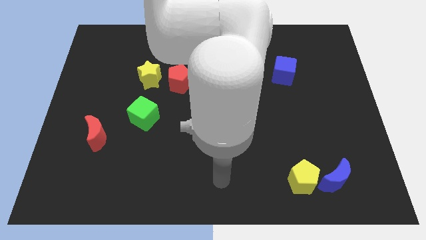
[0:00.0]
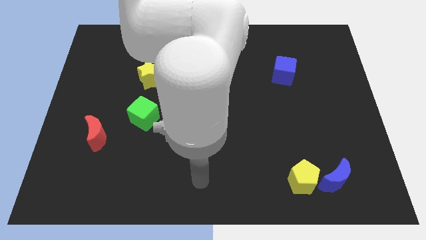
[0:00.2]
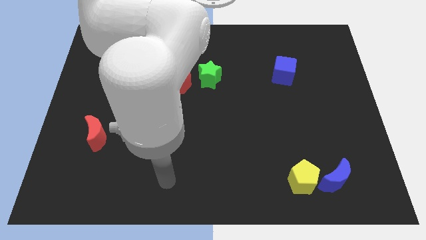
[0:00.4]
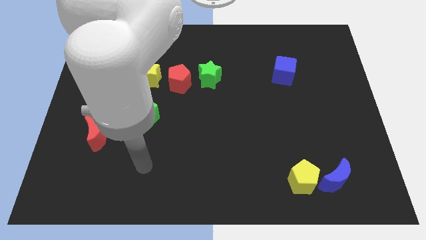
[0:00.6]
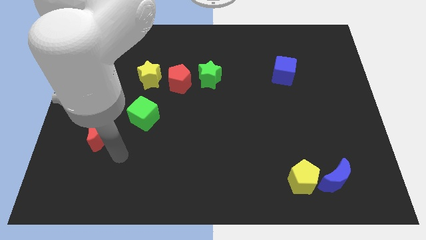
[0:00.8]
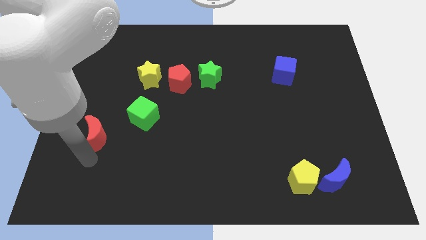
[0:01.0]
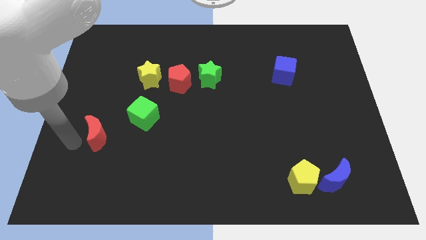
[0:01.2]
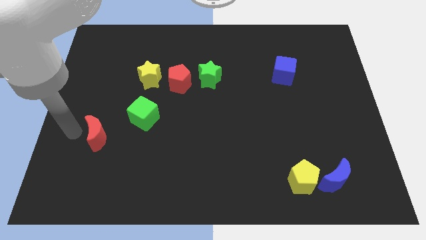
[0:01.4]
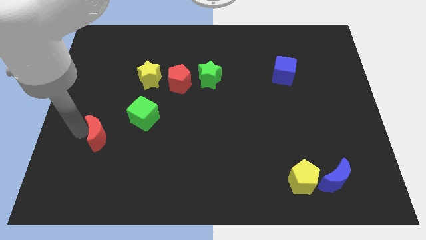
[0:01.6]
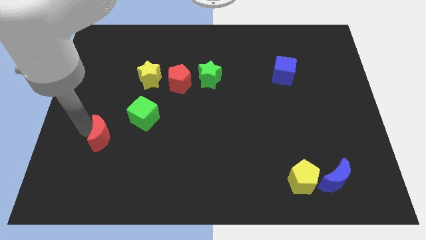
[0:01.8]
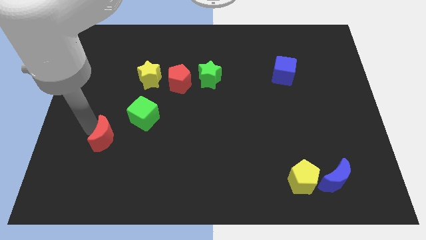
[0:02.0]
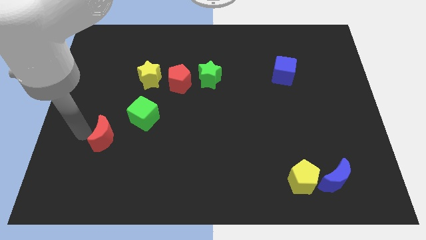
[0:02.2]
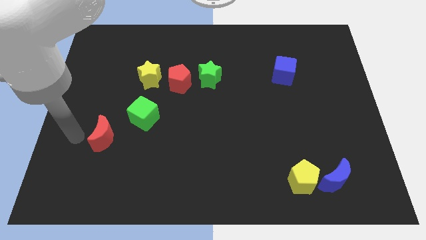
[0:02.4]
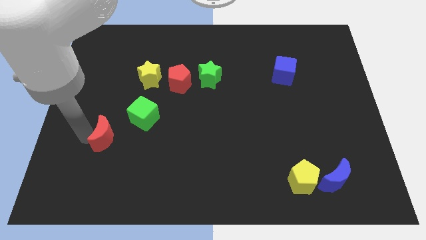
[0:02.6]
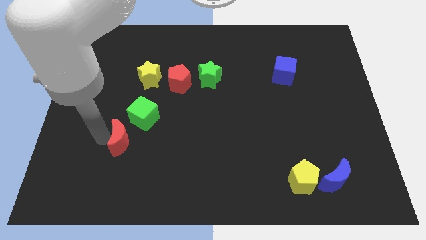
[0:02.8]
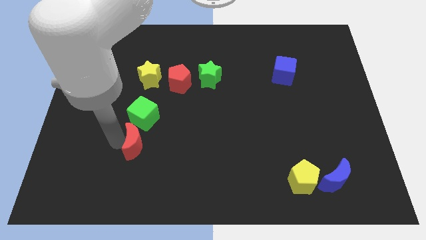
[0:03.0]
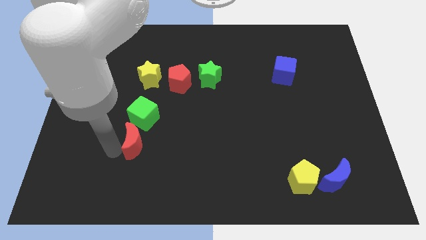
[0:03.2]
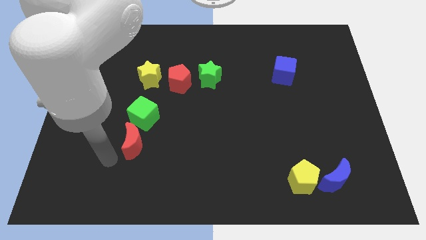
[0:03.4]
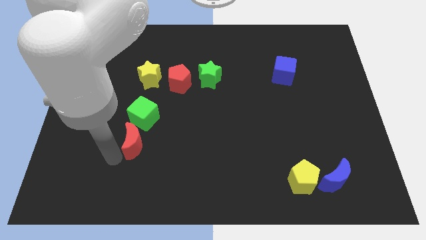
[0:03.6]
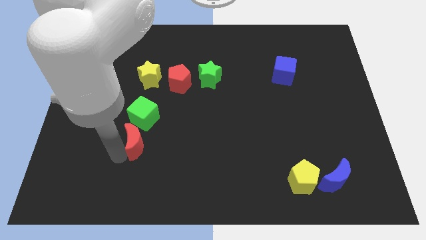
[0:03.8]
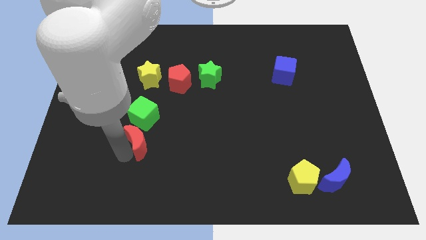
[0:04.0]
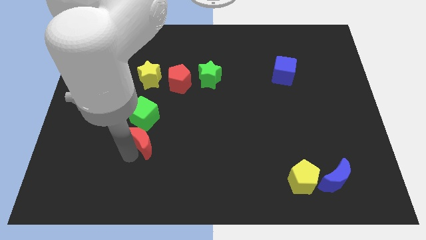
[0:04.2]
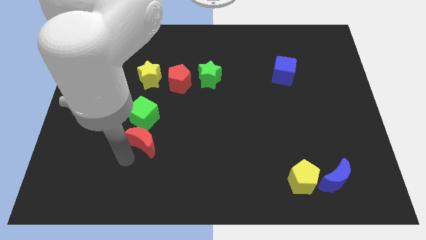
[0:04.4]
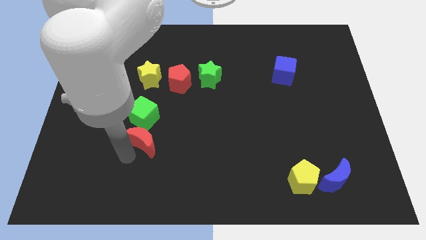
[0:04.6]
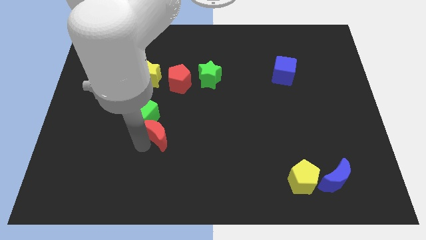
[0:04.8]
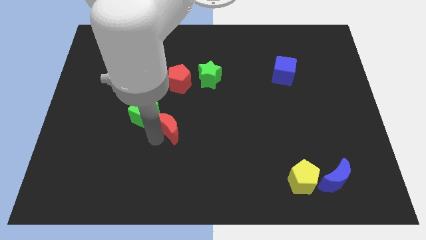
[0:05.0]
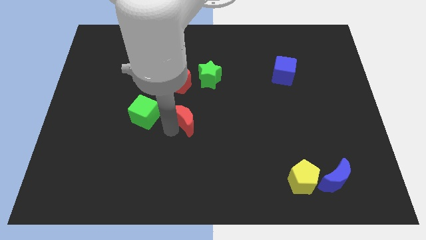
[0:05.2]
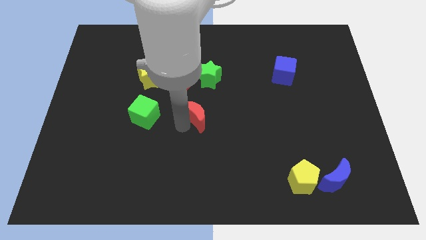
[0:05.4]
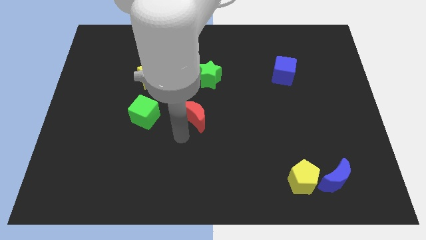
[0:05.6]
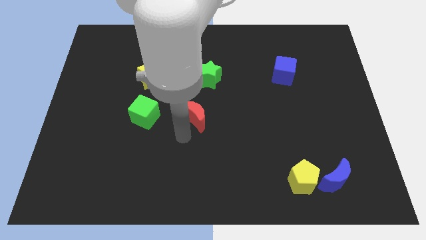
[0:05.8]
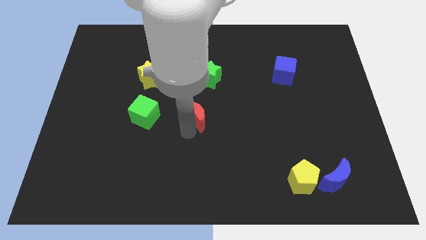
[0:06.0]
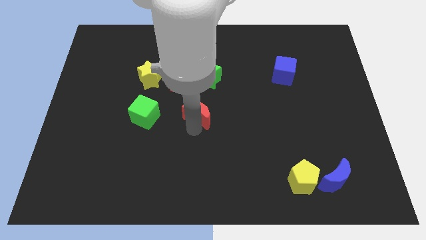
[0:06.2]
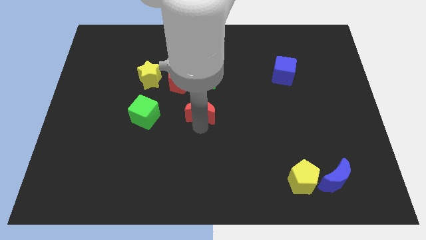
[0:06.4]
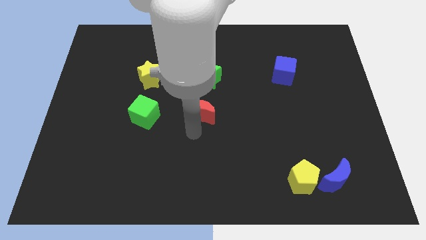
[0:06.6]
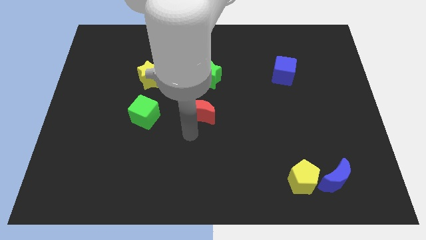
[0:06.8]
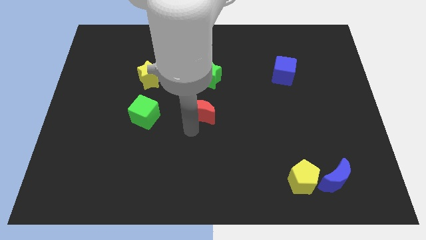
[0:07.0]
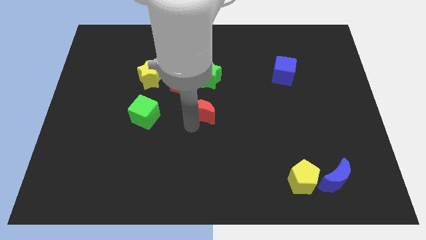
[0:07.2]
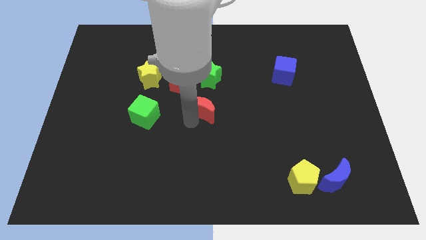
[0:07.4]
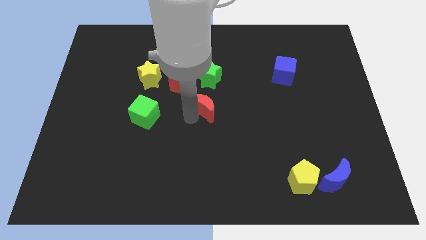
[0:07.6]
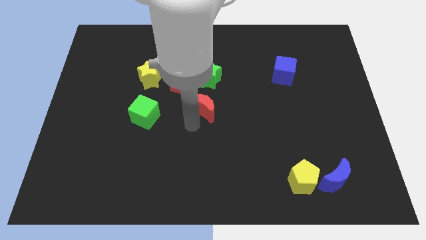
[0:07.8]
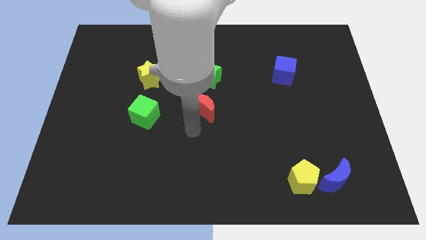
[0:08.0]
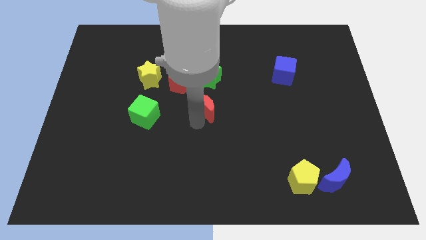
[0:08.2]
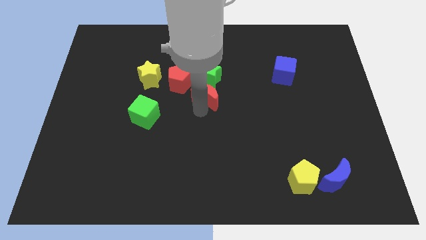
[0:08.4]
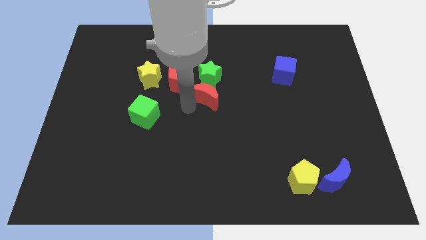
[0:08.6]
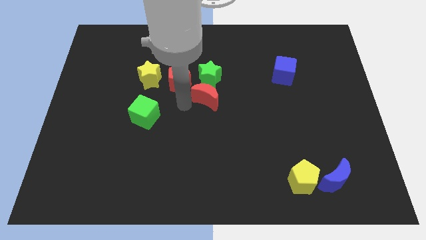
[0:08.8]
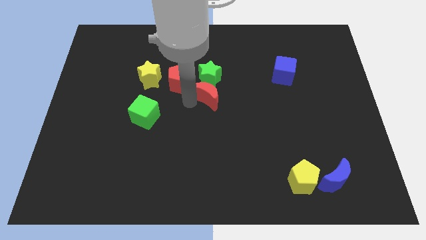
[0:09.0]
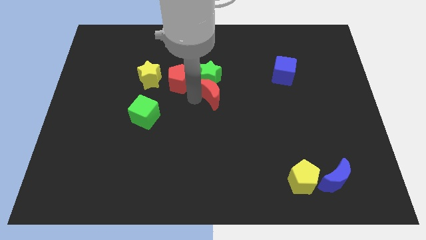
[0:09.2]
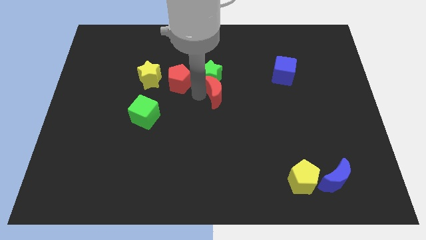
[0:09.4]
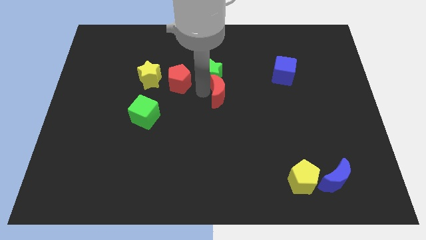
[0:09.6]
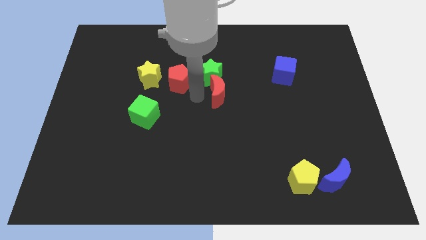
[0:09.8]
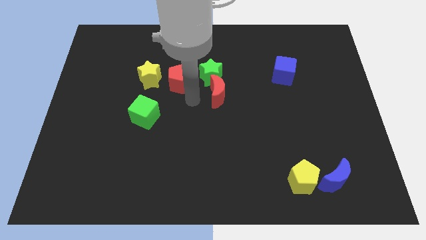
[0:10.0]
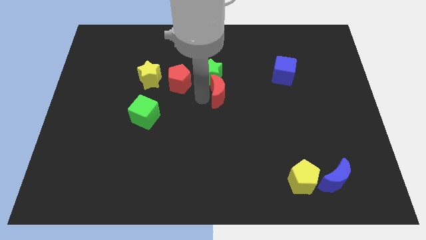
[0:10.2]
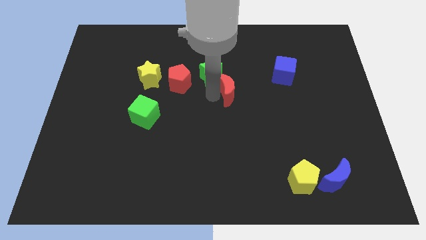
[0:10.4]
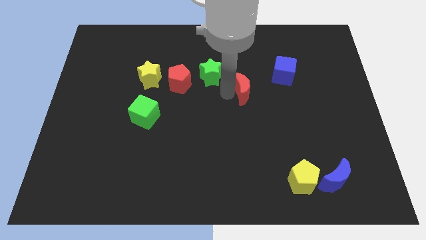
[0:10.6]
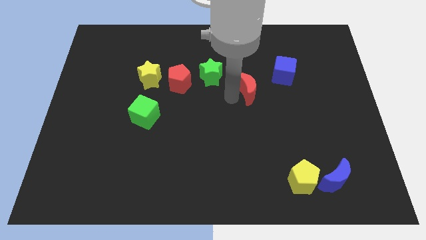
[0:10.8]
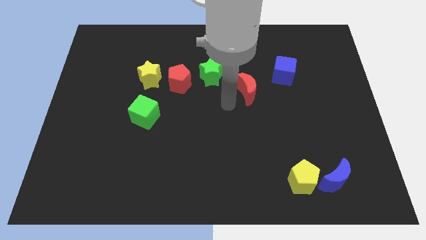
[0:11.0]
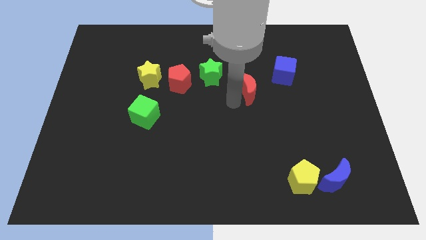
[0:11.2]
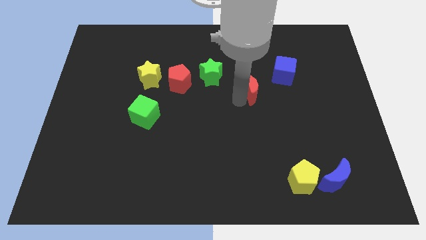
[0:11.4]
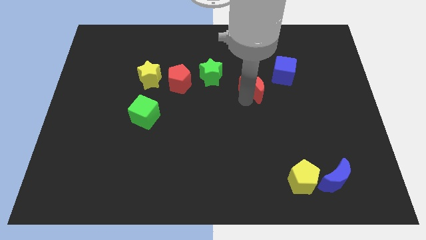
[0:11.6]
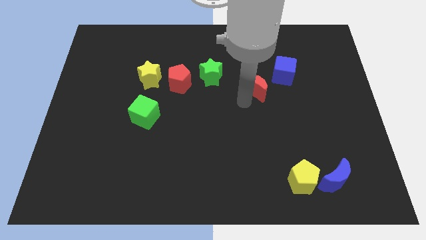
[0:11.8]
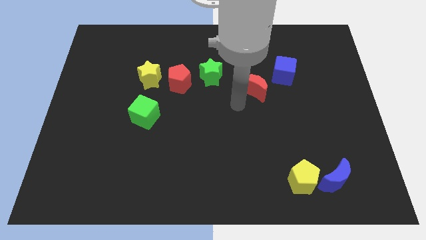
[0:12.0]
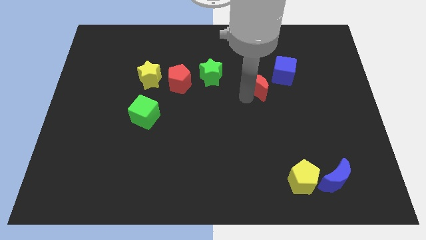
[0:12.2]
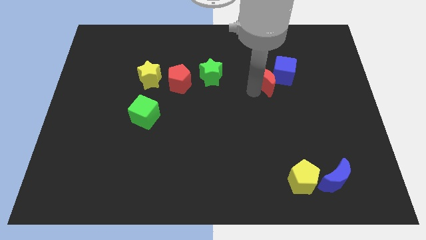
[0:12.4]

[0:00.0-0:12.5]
put the red moon towards the blue cube
